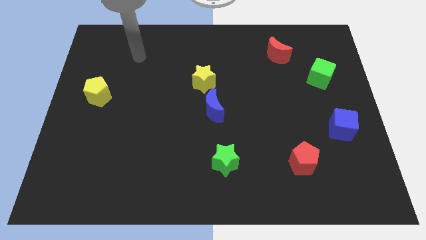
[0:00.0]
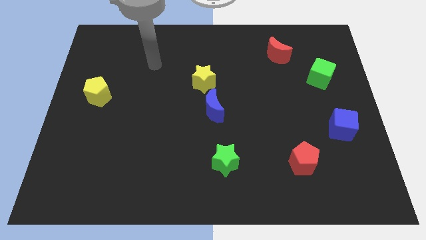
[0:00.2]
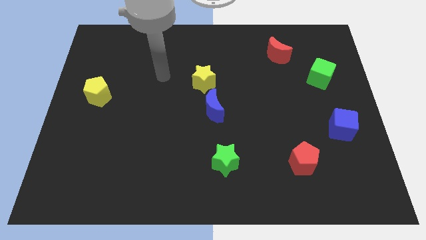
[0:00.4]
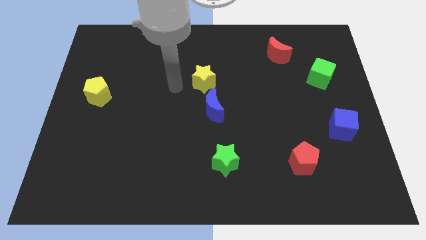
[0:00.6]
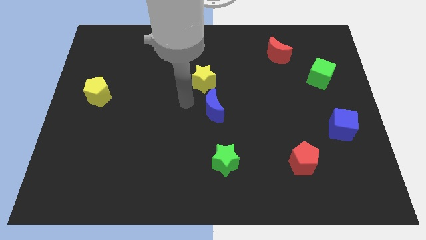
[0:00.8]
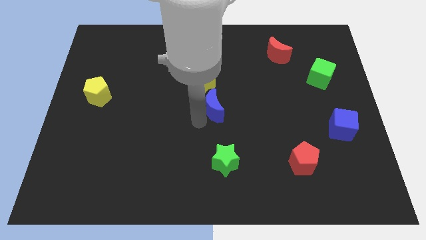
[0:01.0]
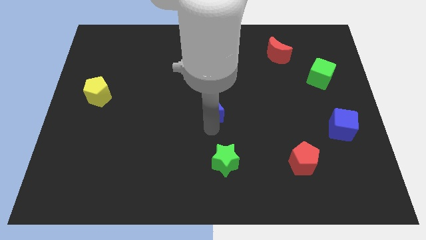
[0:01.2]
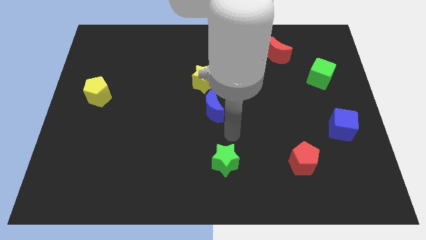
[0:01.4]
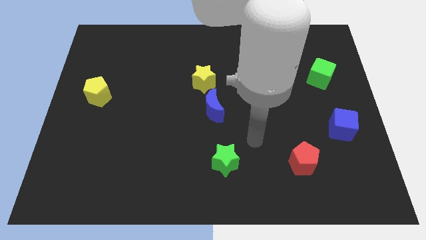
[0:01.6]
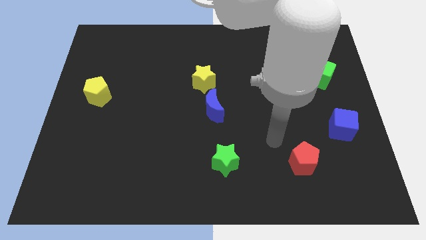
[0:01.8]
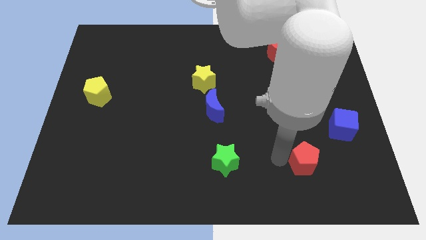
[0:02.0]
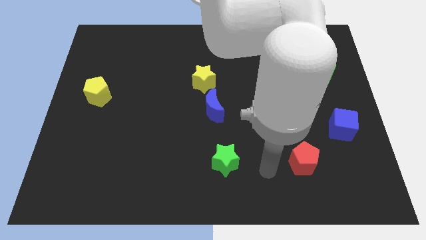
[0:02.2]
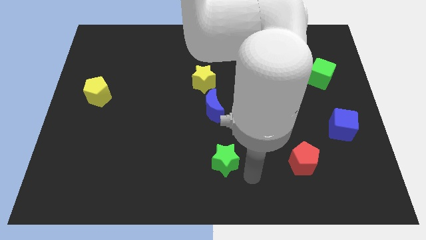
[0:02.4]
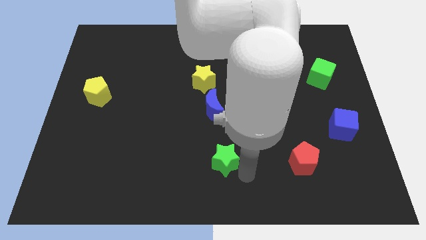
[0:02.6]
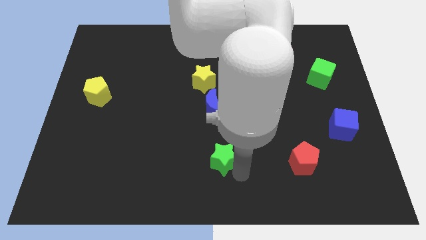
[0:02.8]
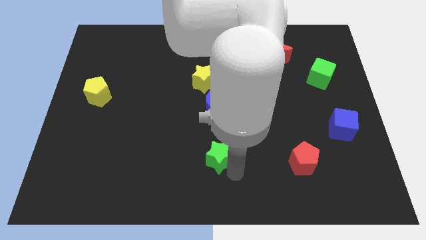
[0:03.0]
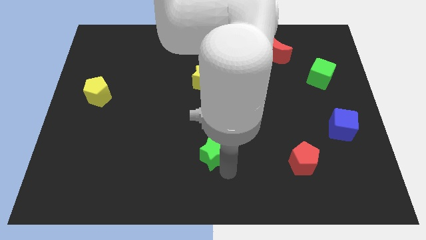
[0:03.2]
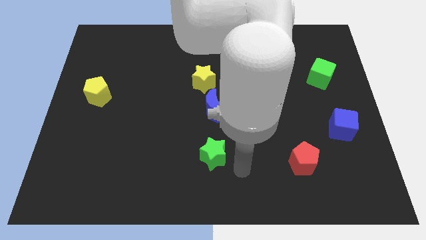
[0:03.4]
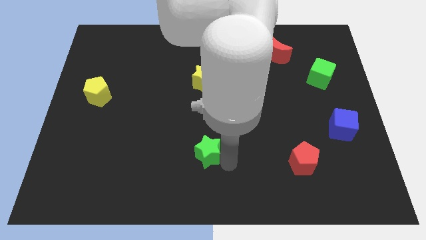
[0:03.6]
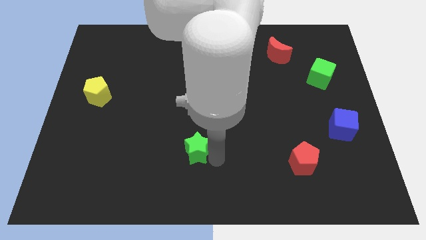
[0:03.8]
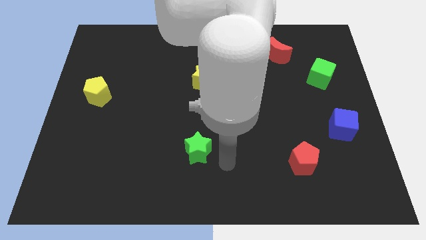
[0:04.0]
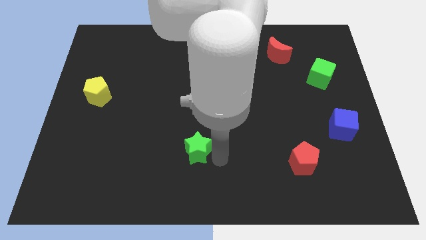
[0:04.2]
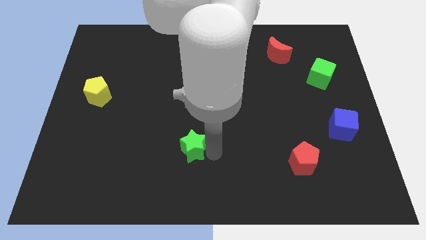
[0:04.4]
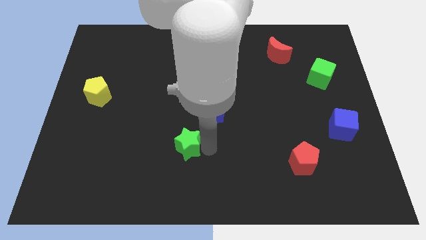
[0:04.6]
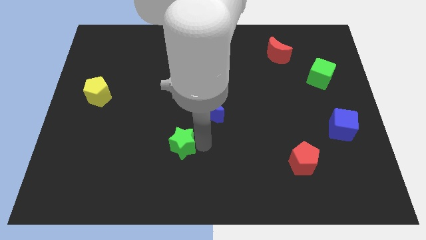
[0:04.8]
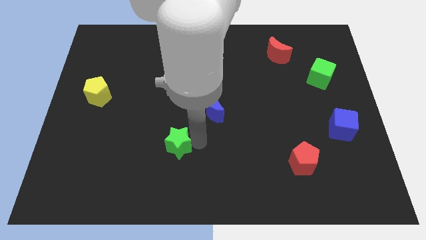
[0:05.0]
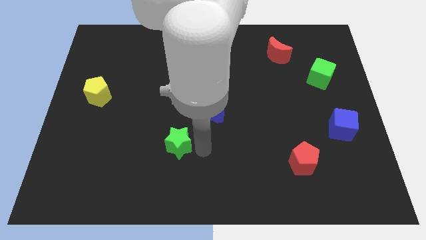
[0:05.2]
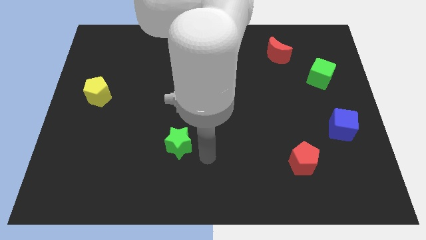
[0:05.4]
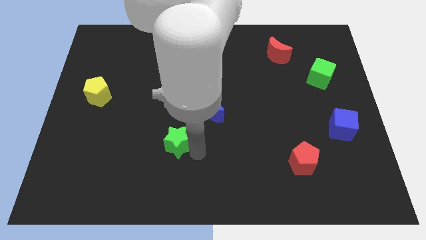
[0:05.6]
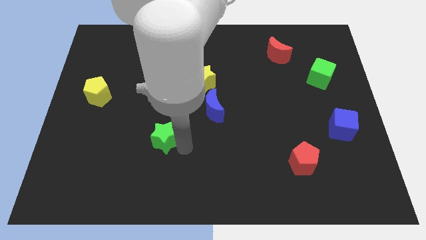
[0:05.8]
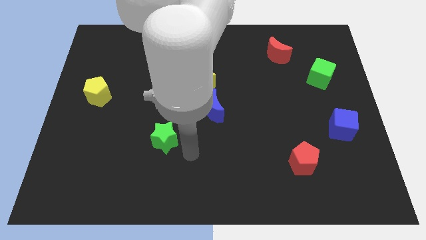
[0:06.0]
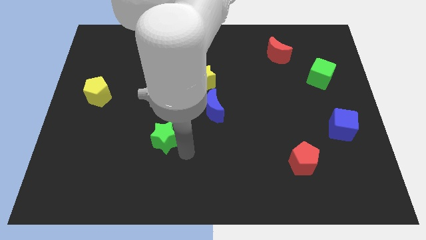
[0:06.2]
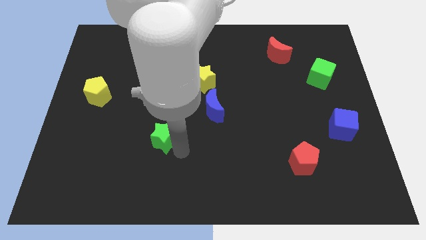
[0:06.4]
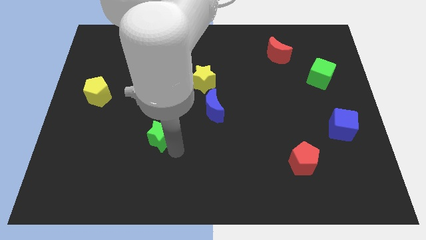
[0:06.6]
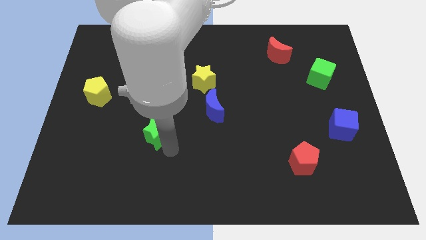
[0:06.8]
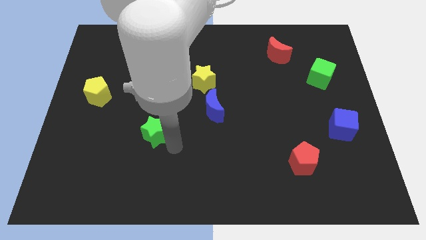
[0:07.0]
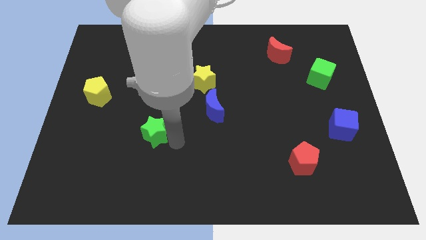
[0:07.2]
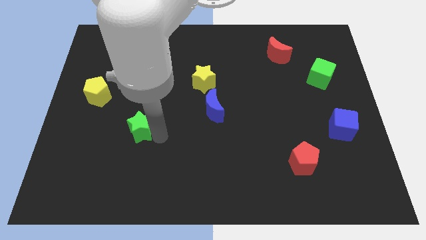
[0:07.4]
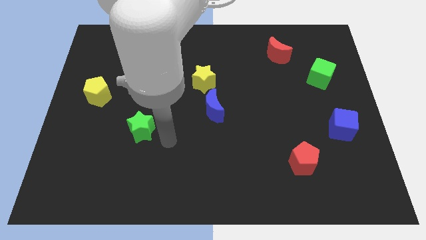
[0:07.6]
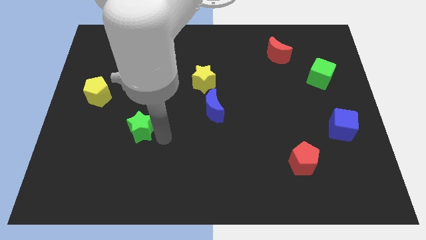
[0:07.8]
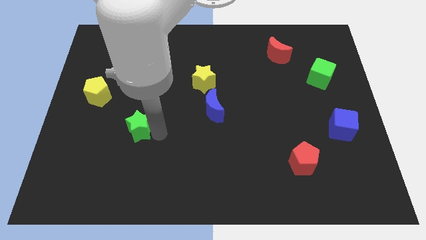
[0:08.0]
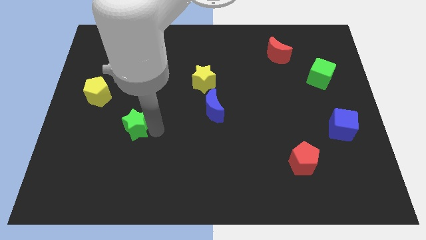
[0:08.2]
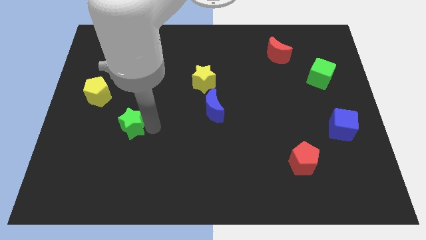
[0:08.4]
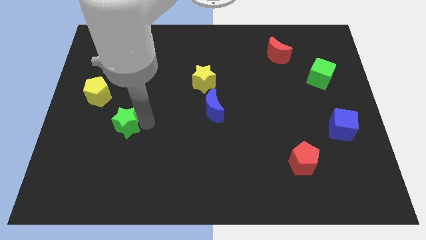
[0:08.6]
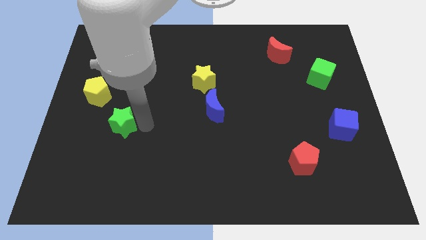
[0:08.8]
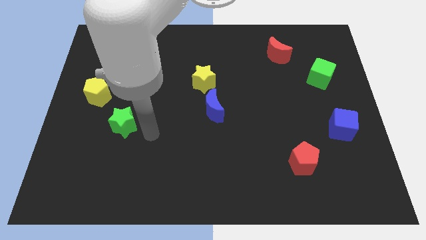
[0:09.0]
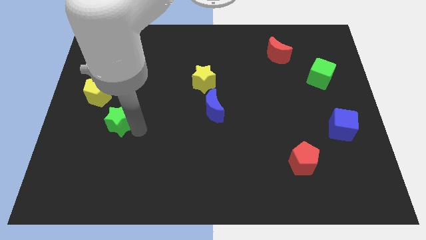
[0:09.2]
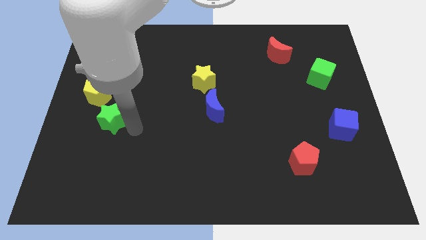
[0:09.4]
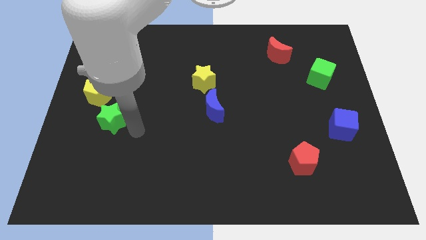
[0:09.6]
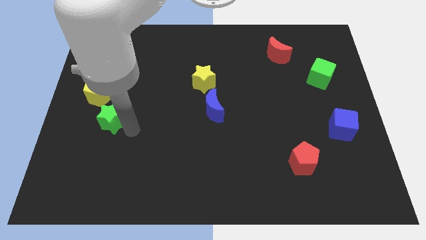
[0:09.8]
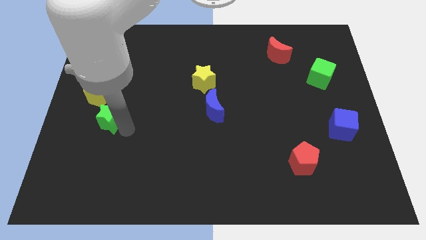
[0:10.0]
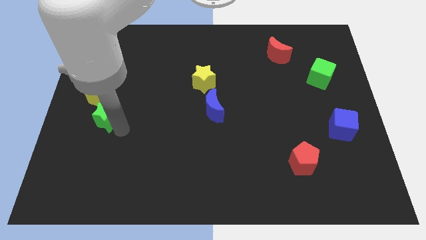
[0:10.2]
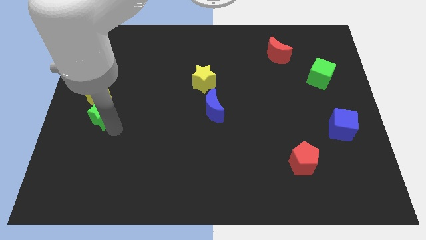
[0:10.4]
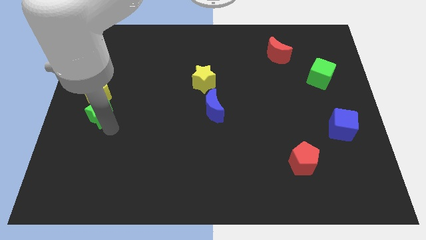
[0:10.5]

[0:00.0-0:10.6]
slide the green star to the center left
